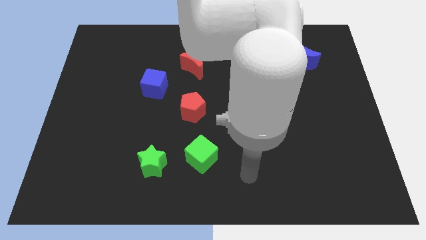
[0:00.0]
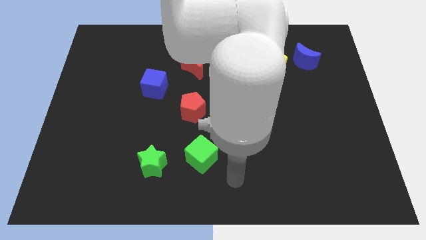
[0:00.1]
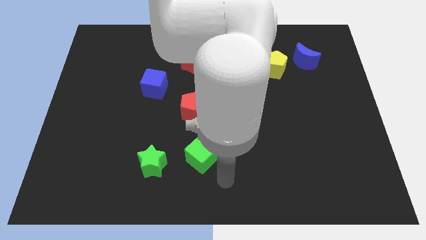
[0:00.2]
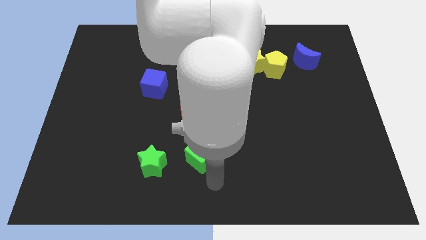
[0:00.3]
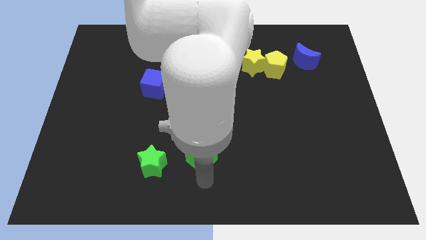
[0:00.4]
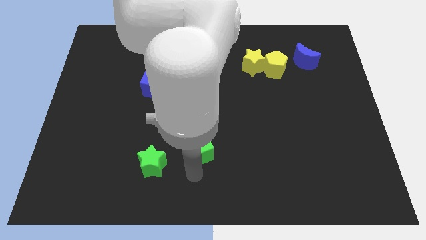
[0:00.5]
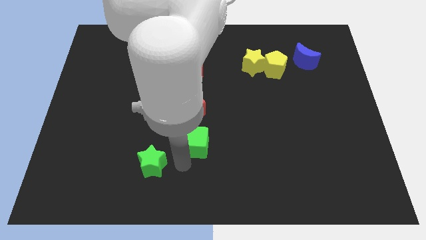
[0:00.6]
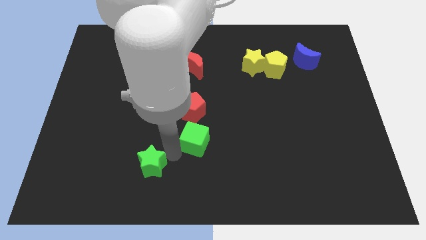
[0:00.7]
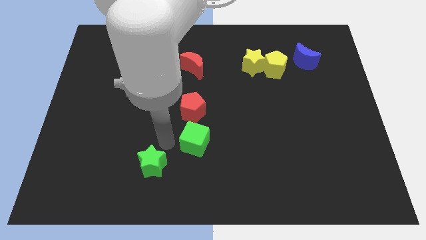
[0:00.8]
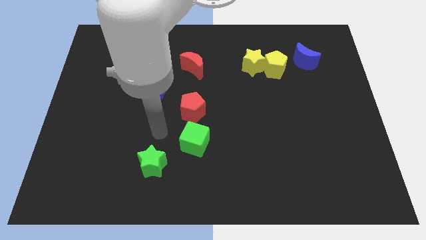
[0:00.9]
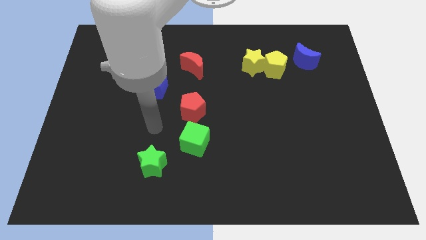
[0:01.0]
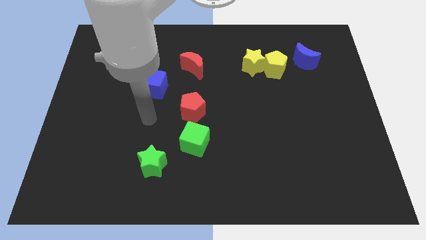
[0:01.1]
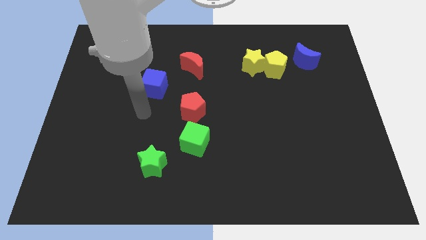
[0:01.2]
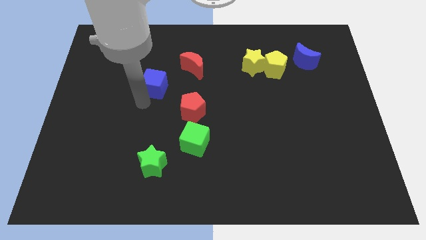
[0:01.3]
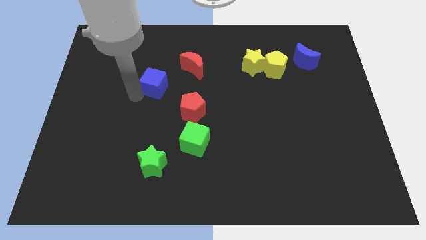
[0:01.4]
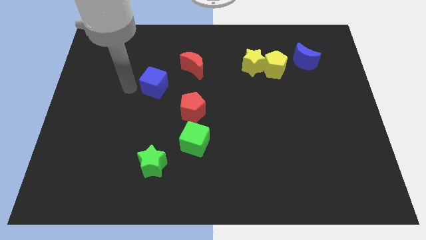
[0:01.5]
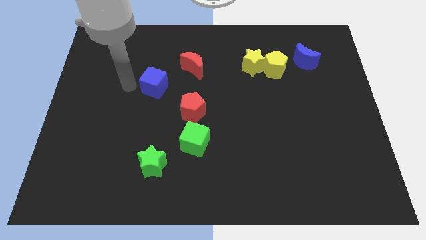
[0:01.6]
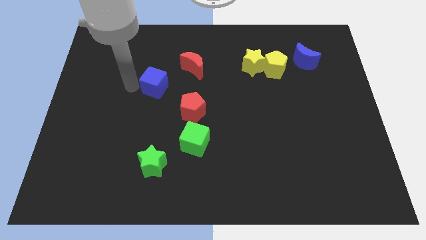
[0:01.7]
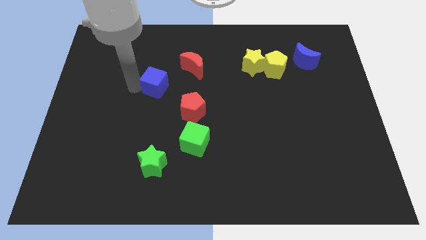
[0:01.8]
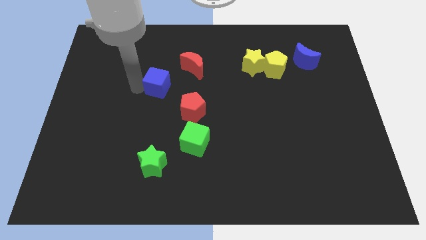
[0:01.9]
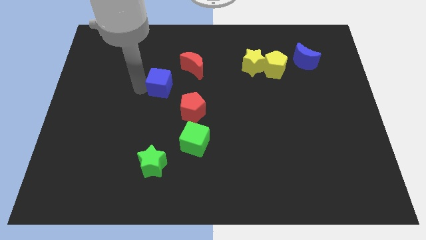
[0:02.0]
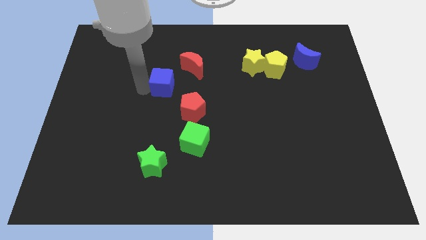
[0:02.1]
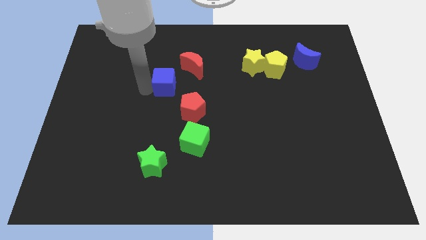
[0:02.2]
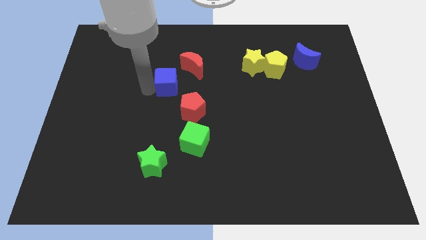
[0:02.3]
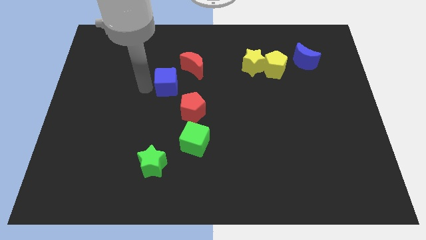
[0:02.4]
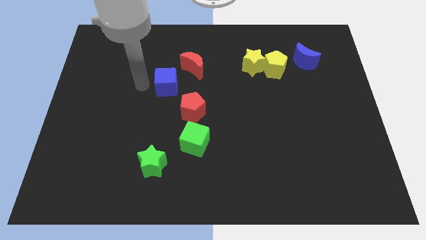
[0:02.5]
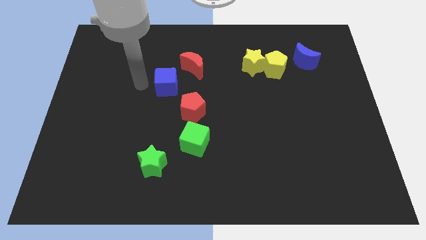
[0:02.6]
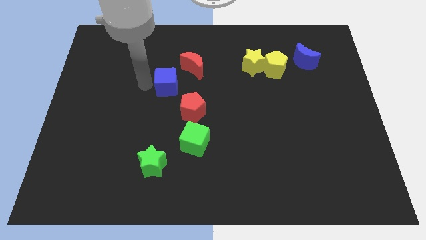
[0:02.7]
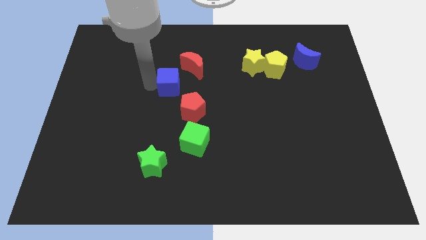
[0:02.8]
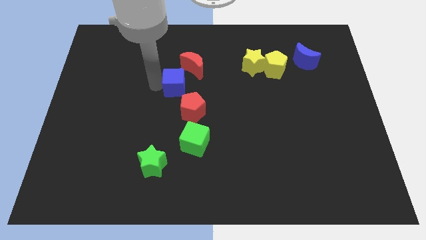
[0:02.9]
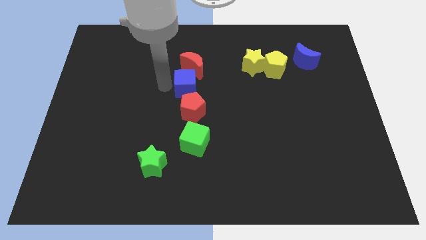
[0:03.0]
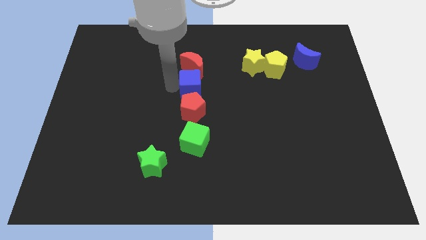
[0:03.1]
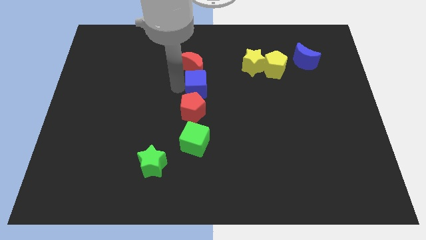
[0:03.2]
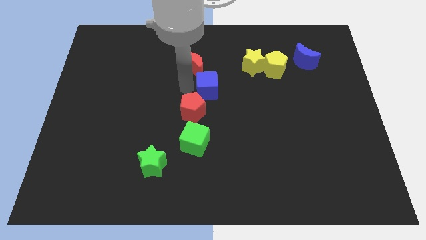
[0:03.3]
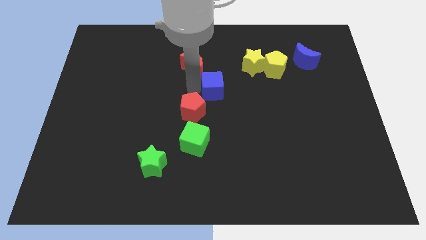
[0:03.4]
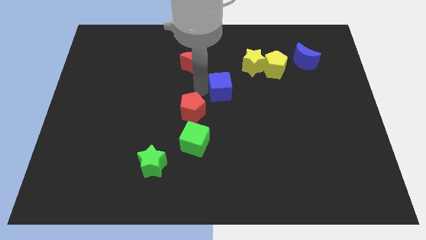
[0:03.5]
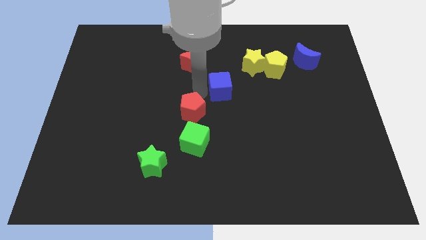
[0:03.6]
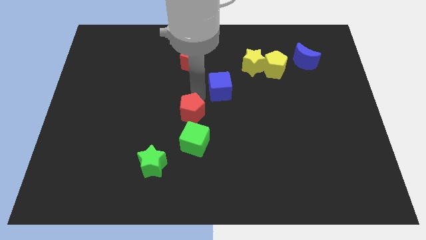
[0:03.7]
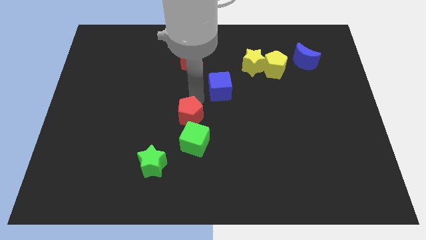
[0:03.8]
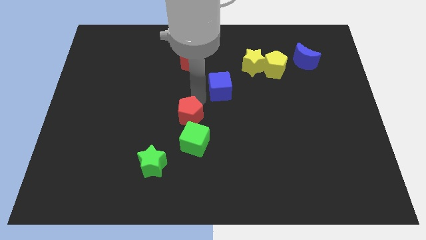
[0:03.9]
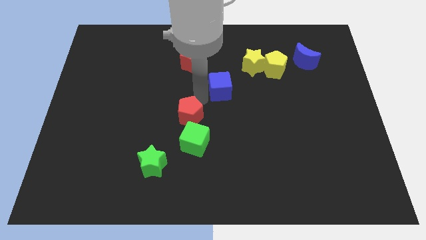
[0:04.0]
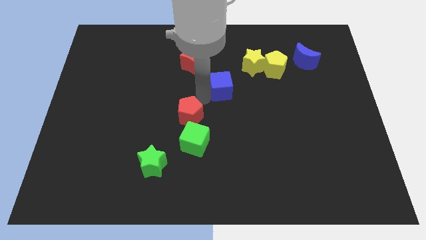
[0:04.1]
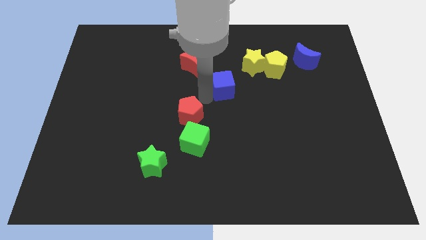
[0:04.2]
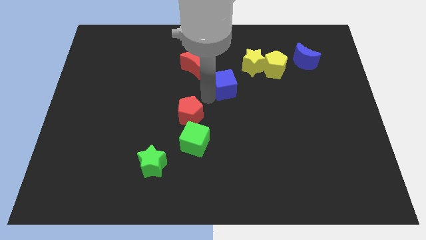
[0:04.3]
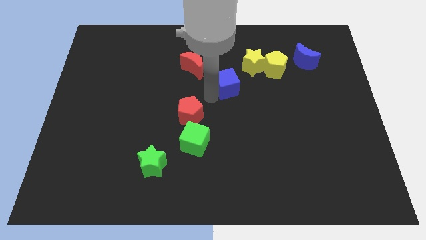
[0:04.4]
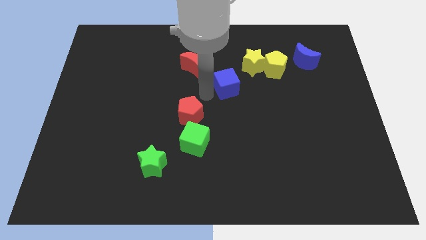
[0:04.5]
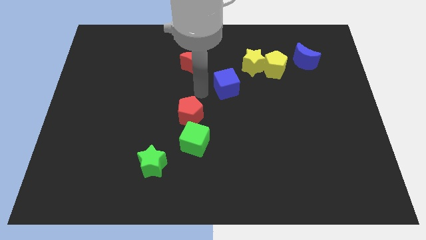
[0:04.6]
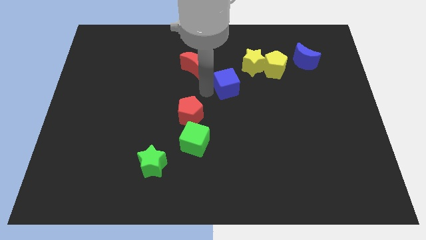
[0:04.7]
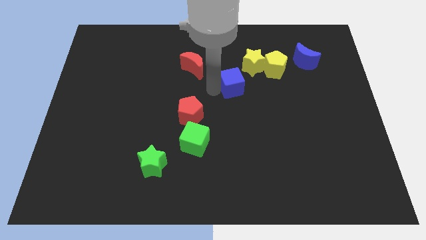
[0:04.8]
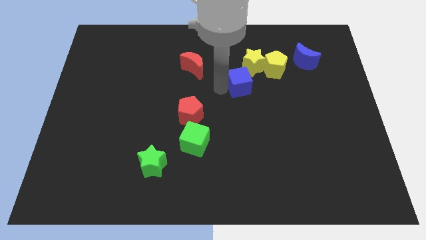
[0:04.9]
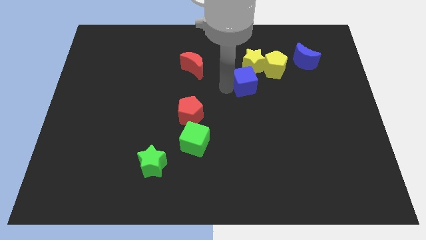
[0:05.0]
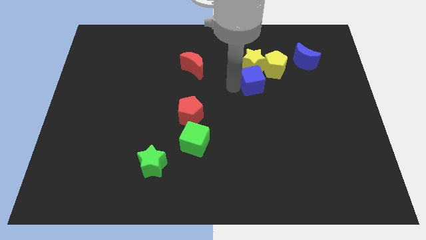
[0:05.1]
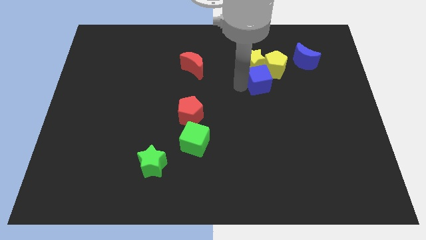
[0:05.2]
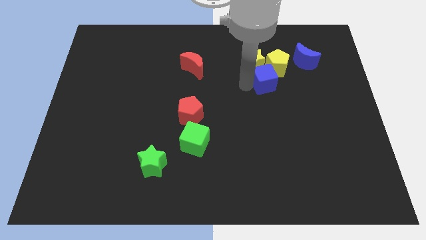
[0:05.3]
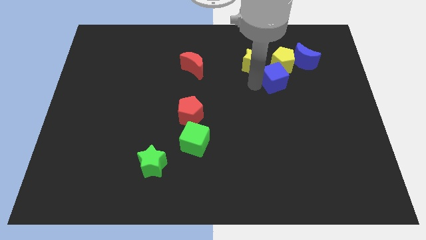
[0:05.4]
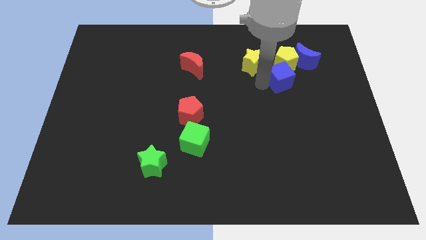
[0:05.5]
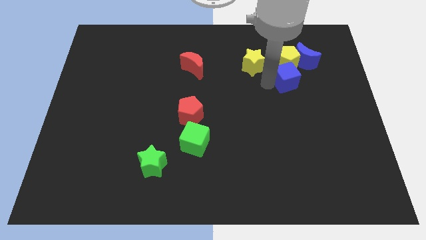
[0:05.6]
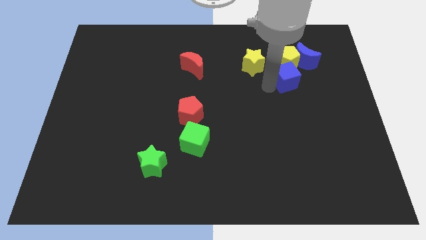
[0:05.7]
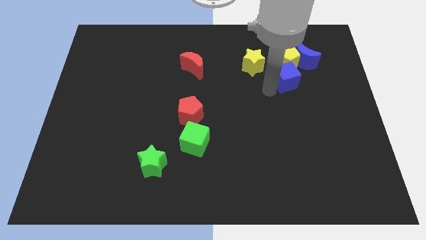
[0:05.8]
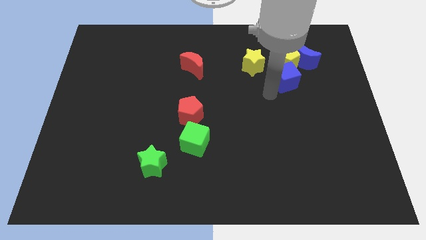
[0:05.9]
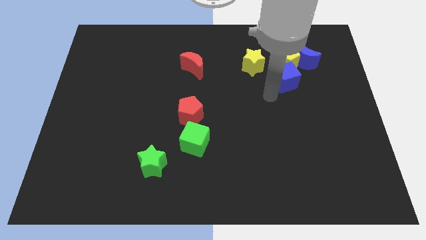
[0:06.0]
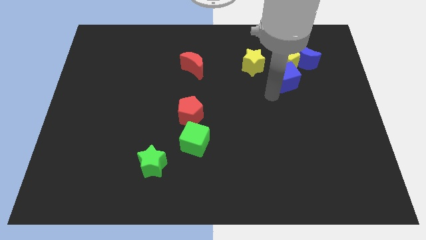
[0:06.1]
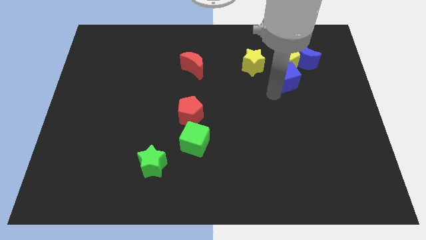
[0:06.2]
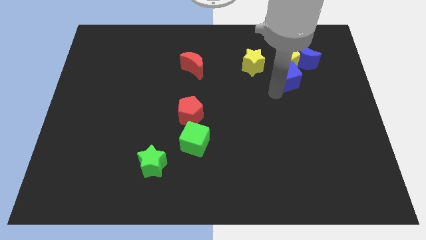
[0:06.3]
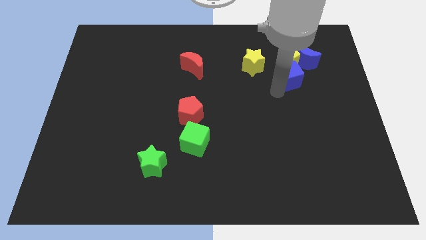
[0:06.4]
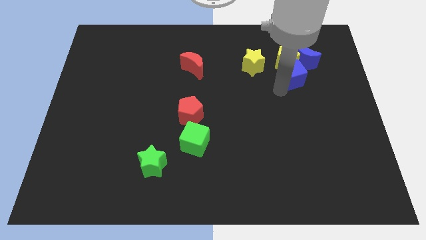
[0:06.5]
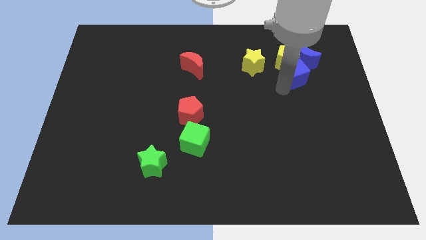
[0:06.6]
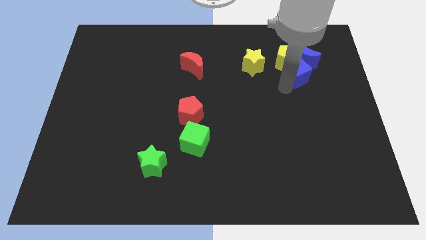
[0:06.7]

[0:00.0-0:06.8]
slide the blue cube close to the blue moon
